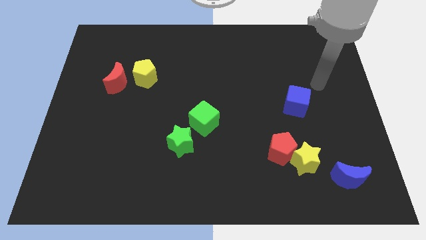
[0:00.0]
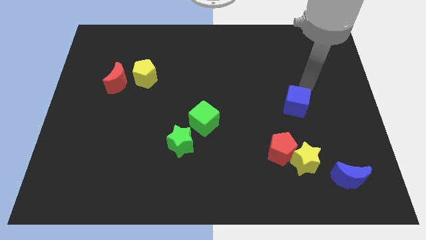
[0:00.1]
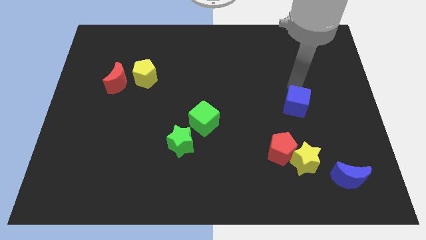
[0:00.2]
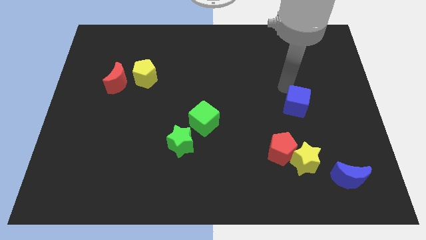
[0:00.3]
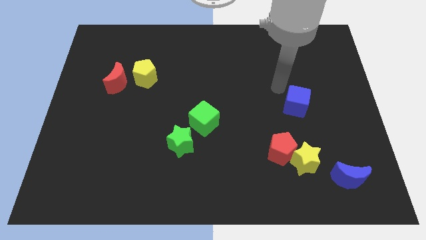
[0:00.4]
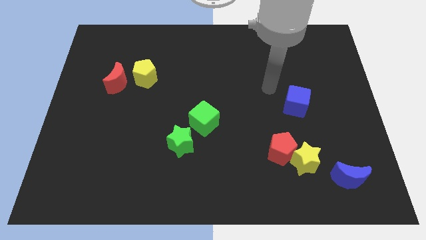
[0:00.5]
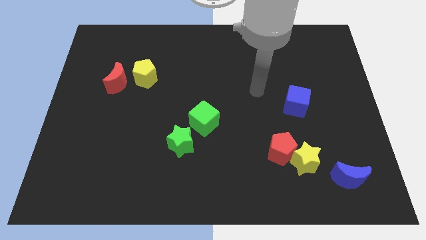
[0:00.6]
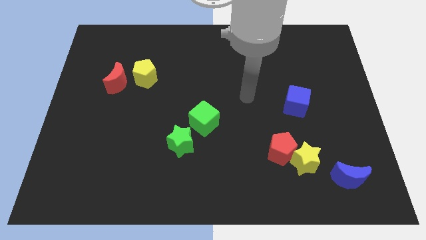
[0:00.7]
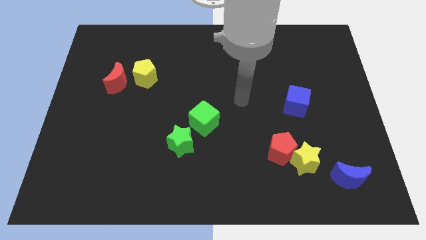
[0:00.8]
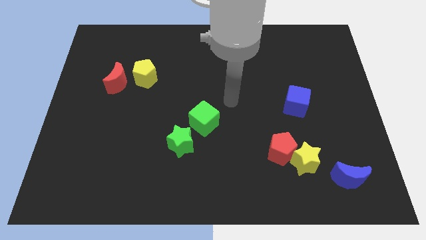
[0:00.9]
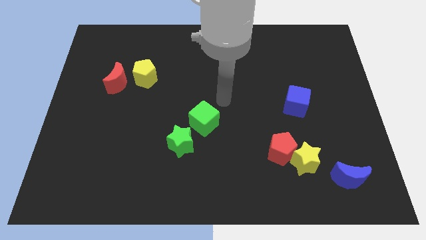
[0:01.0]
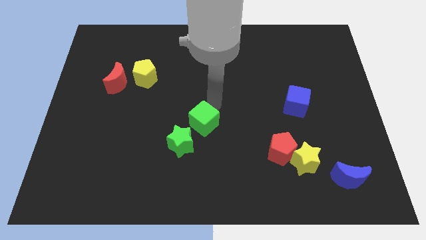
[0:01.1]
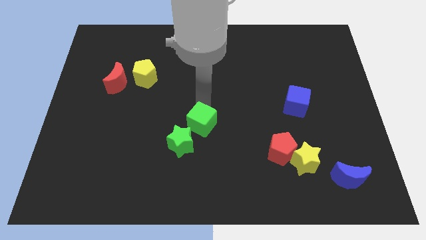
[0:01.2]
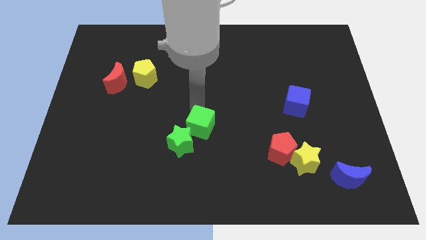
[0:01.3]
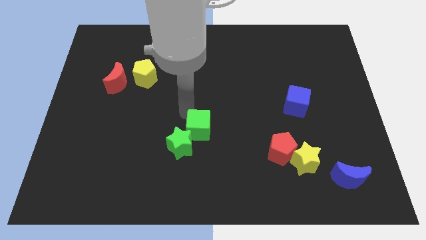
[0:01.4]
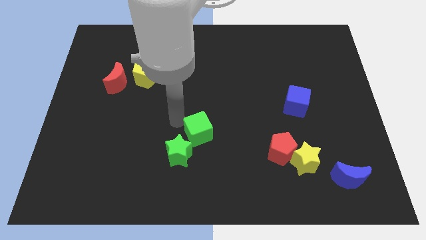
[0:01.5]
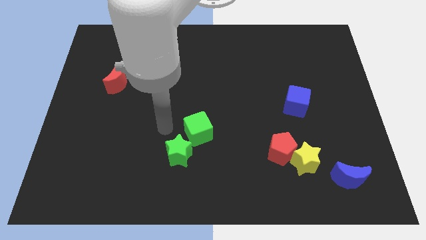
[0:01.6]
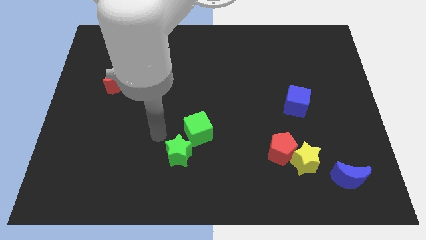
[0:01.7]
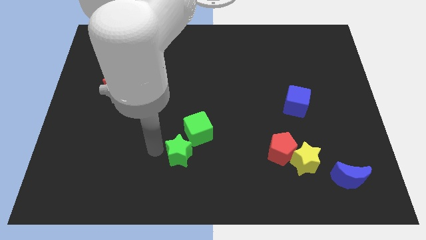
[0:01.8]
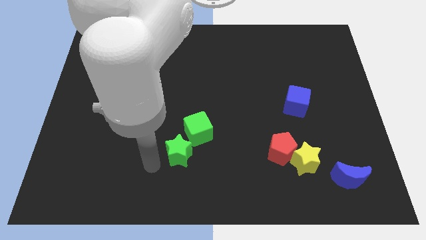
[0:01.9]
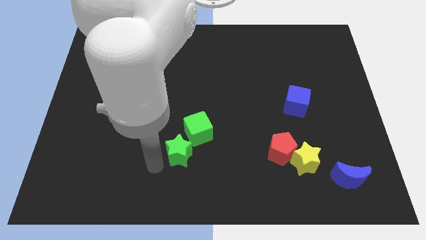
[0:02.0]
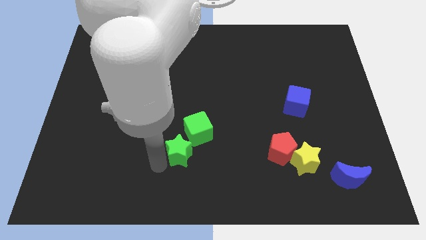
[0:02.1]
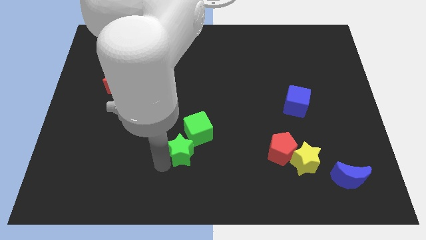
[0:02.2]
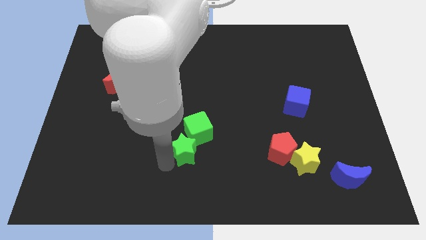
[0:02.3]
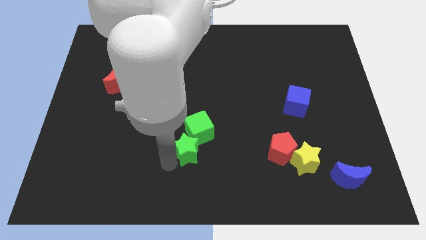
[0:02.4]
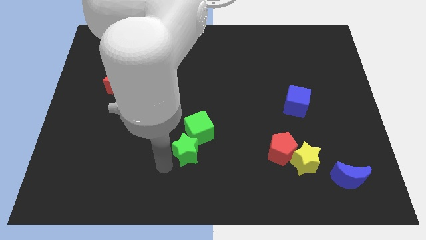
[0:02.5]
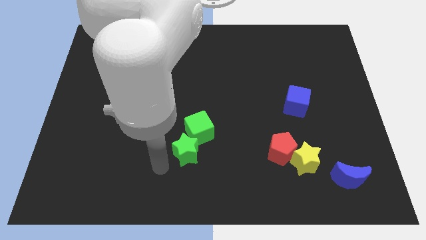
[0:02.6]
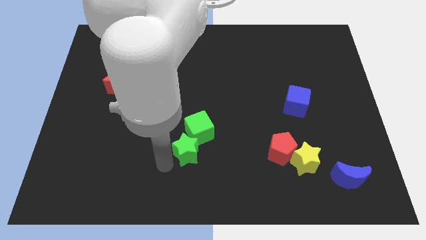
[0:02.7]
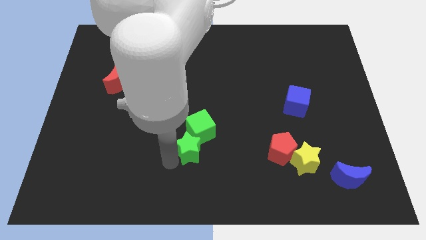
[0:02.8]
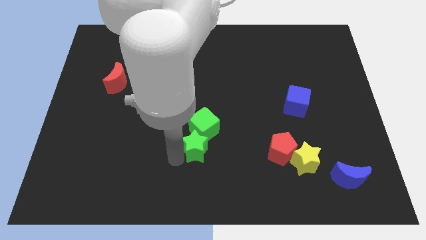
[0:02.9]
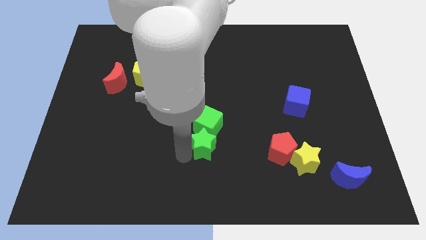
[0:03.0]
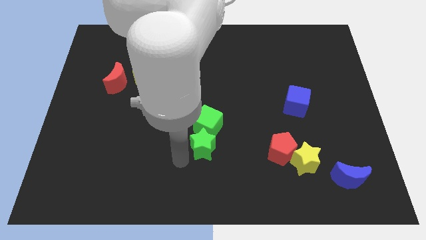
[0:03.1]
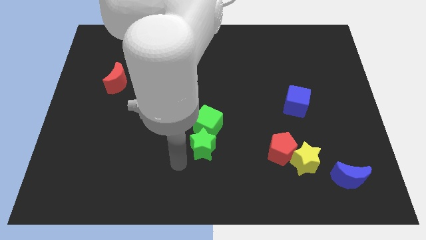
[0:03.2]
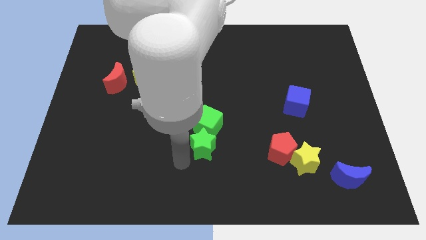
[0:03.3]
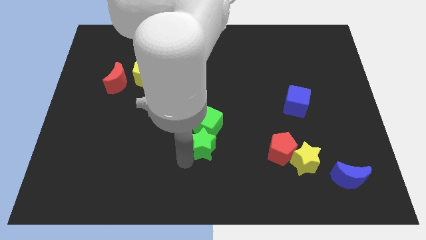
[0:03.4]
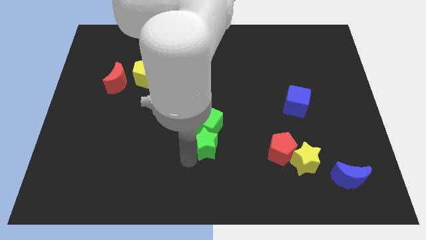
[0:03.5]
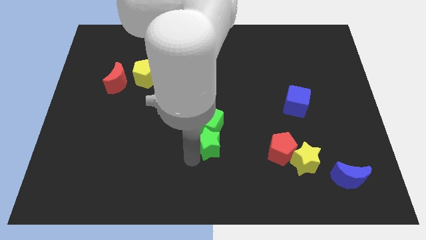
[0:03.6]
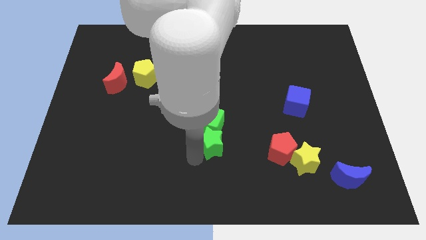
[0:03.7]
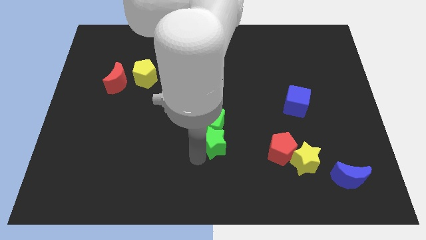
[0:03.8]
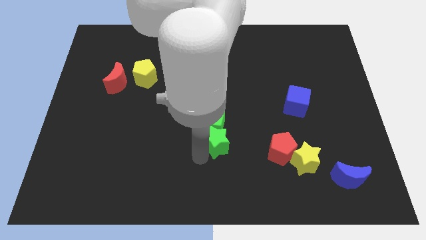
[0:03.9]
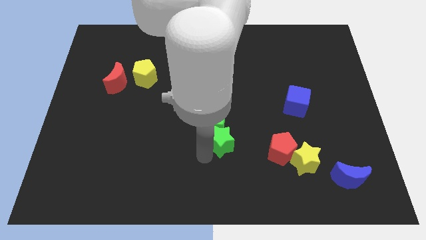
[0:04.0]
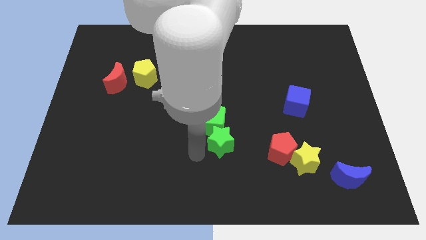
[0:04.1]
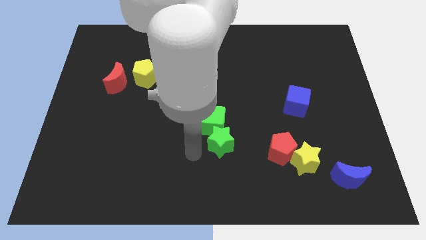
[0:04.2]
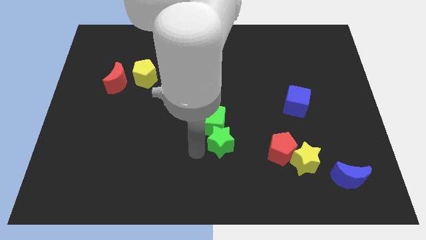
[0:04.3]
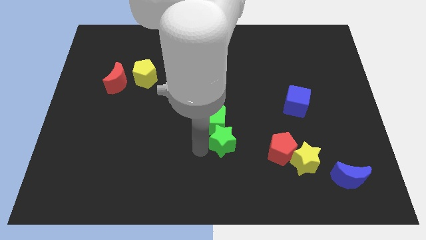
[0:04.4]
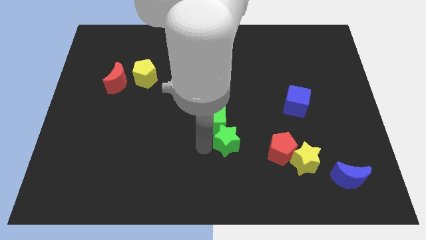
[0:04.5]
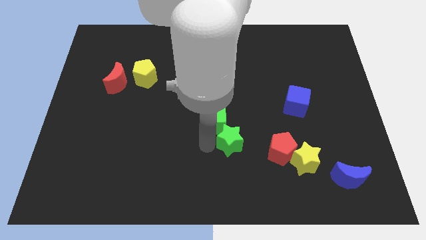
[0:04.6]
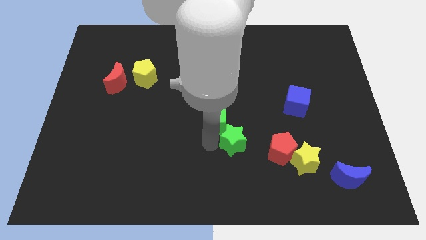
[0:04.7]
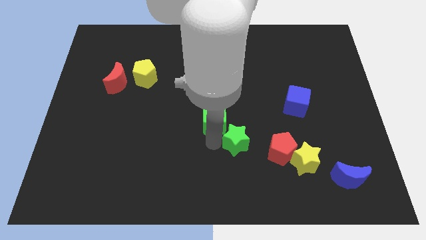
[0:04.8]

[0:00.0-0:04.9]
put the green star diagonally up and to the left of the red pentagon

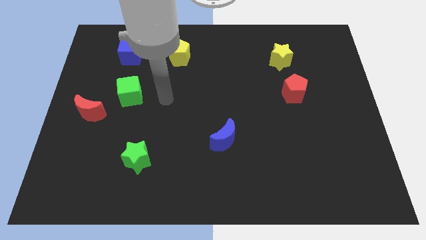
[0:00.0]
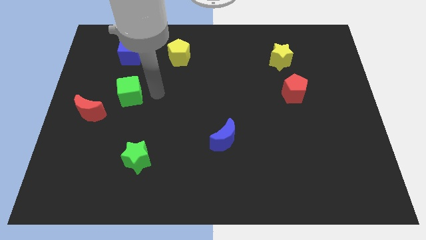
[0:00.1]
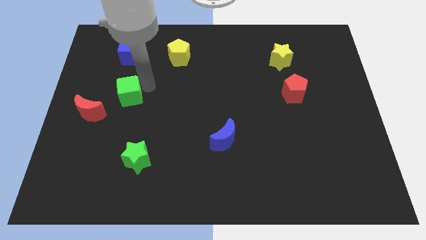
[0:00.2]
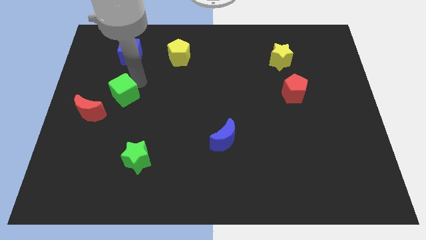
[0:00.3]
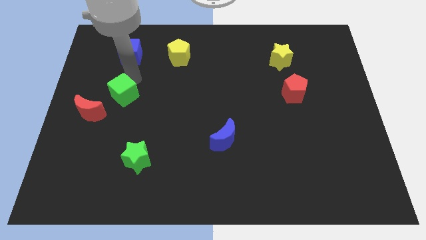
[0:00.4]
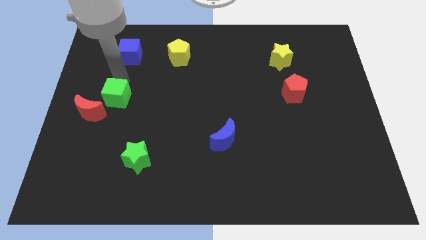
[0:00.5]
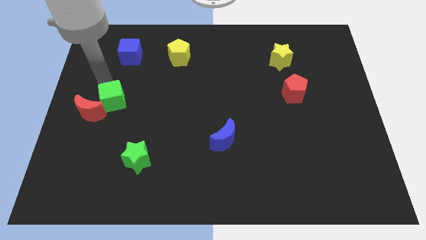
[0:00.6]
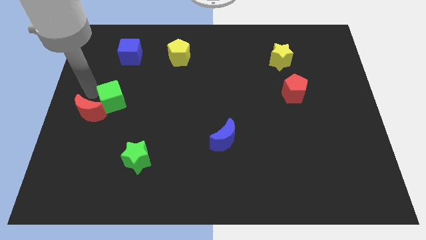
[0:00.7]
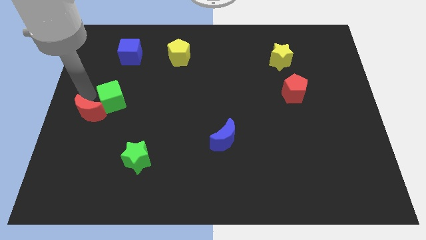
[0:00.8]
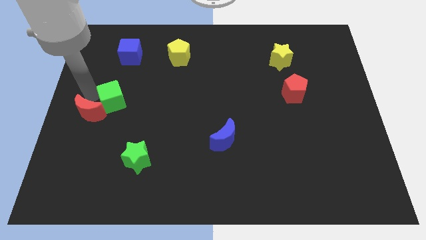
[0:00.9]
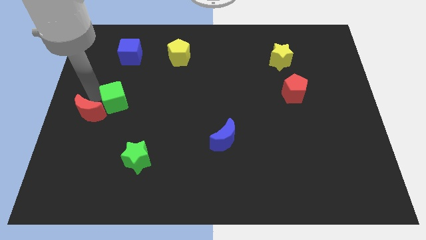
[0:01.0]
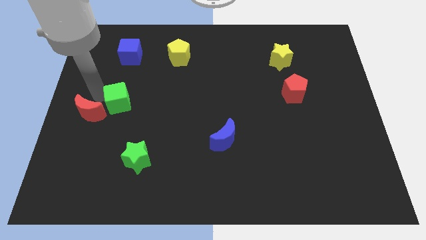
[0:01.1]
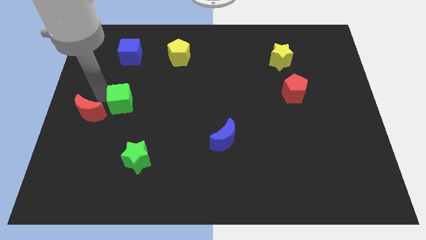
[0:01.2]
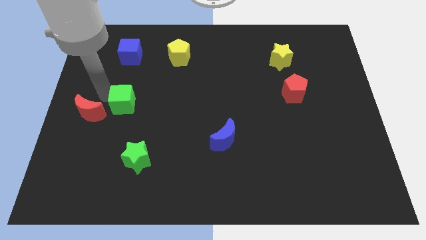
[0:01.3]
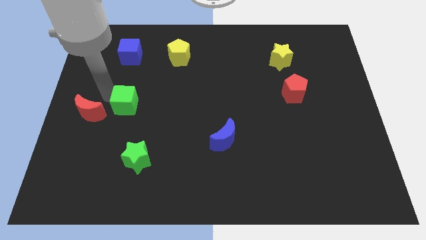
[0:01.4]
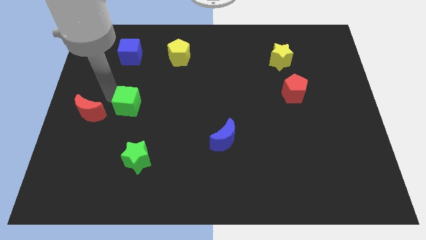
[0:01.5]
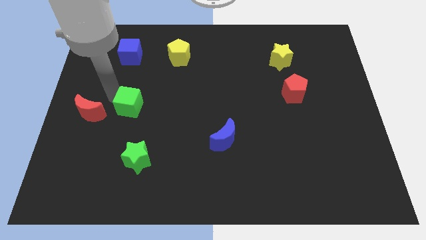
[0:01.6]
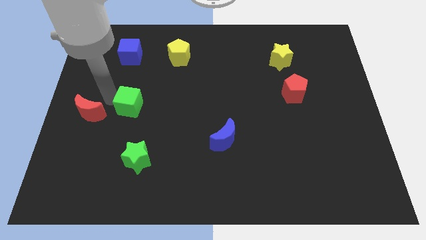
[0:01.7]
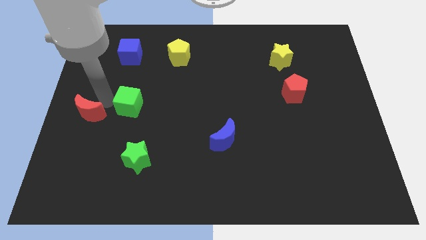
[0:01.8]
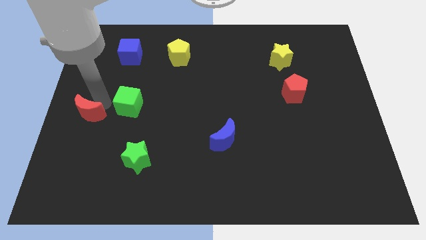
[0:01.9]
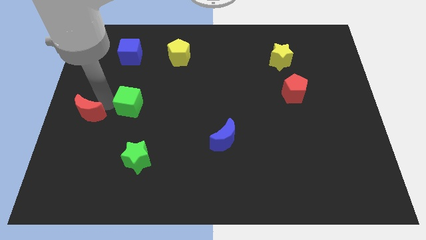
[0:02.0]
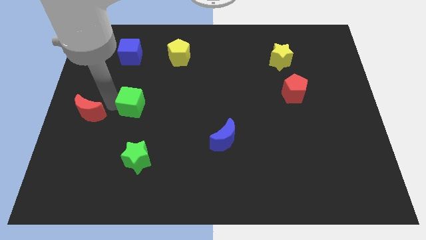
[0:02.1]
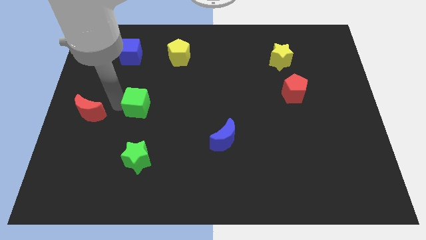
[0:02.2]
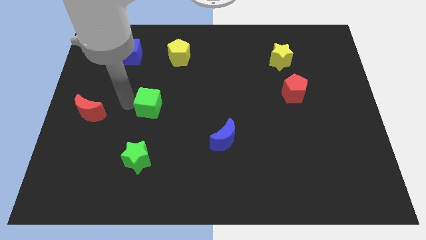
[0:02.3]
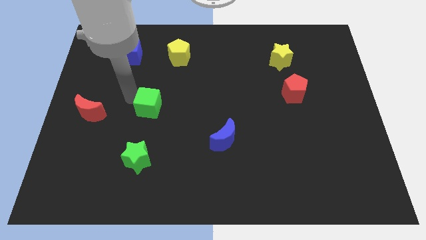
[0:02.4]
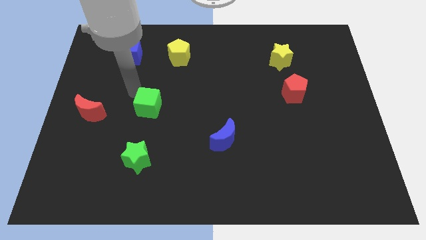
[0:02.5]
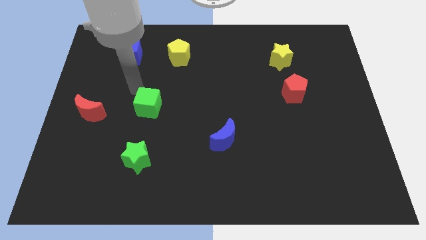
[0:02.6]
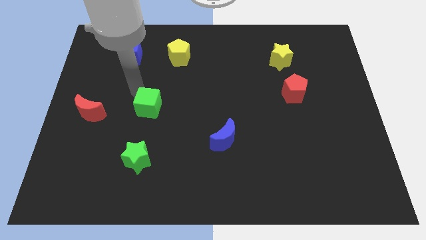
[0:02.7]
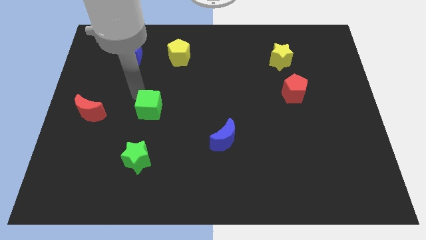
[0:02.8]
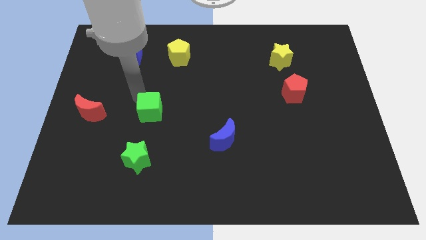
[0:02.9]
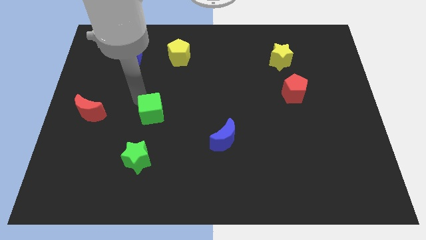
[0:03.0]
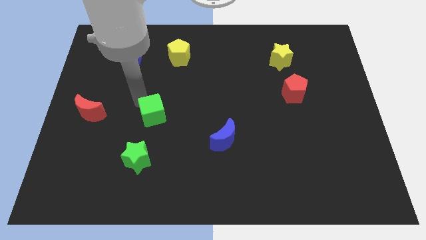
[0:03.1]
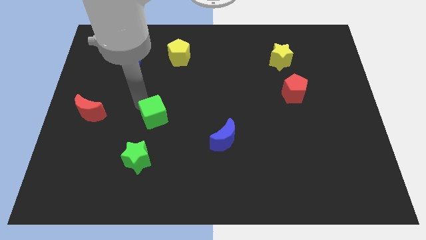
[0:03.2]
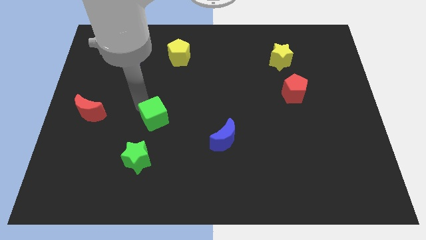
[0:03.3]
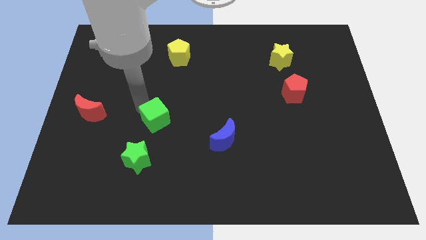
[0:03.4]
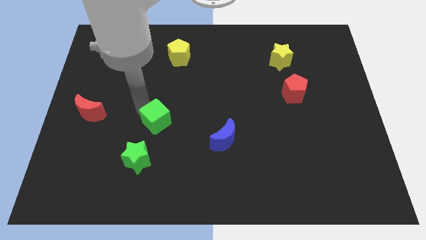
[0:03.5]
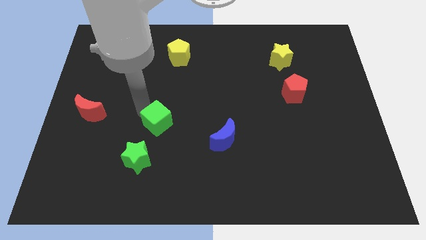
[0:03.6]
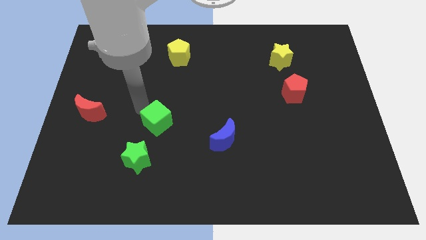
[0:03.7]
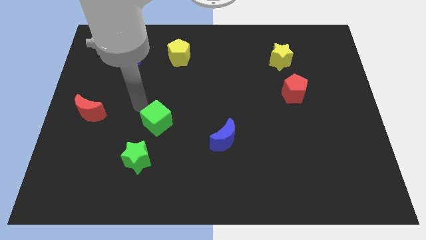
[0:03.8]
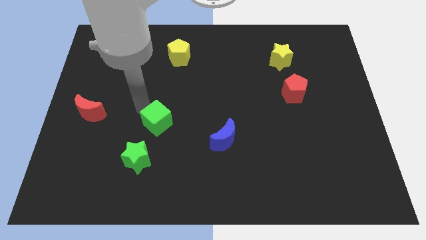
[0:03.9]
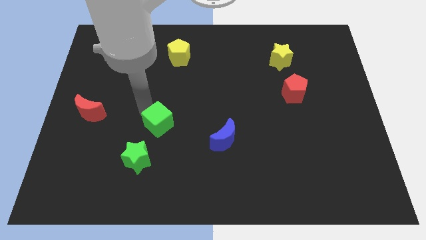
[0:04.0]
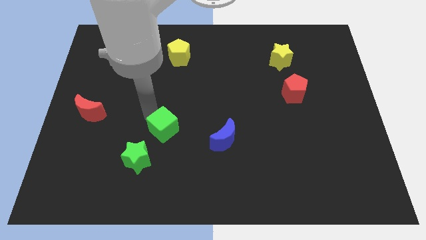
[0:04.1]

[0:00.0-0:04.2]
slide the green cube just left of the blue moon
